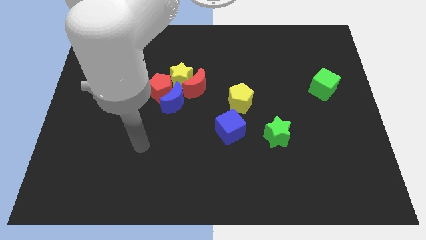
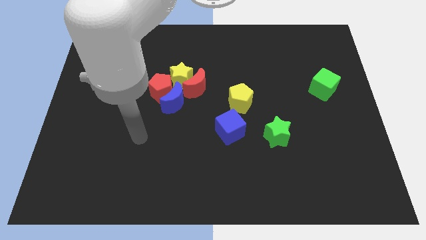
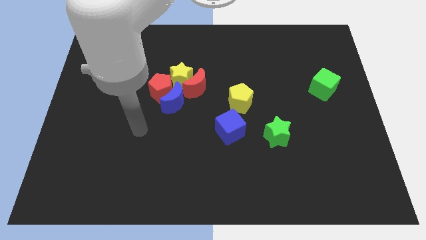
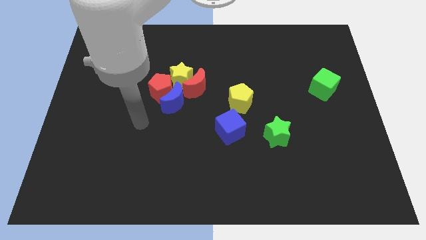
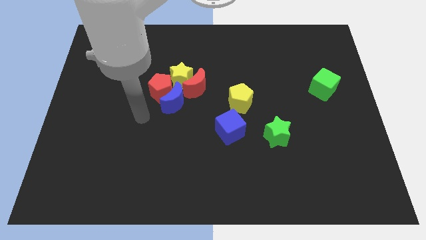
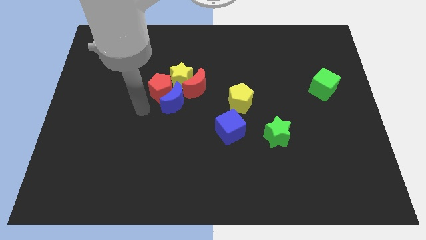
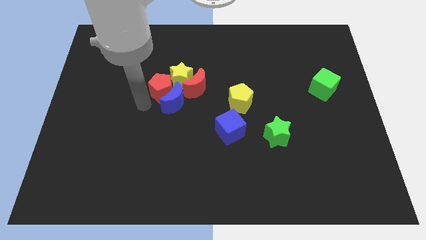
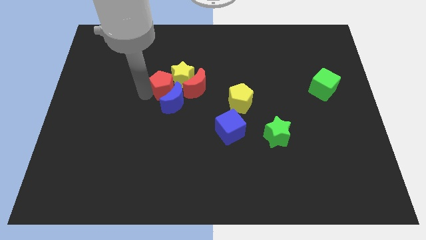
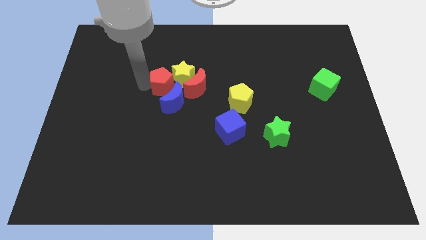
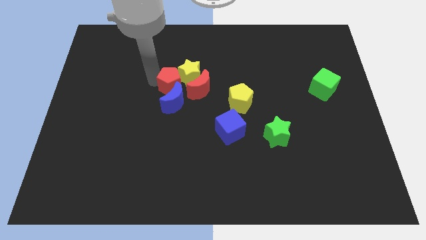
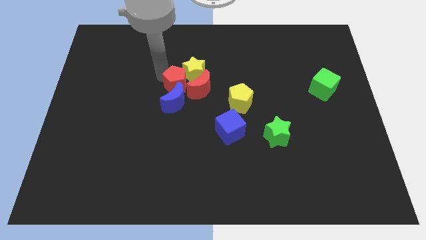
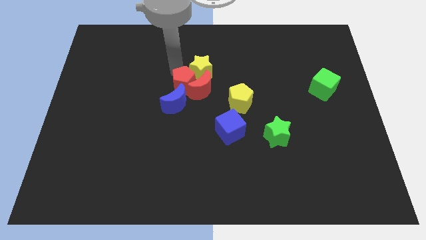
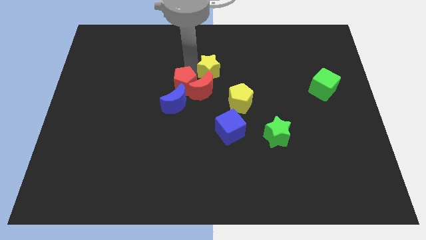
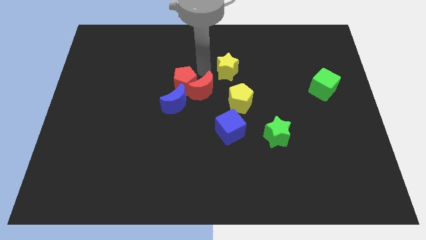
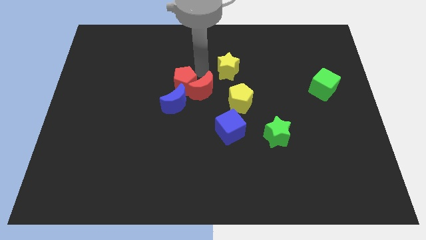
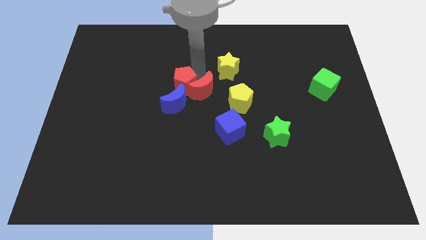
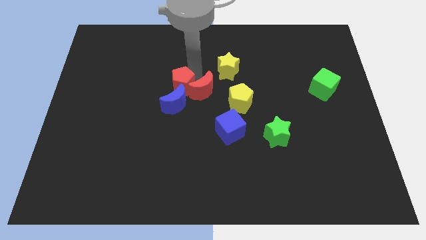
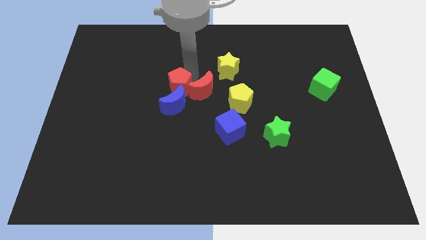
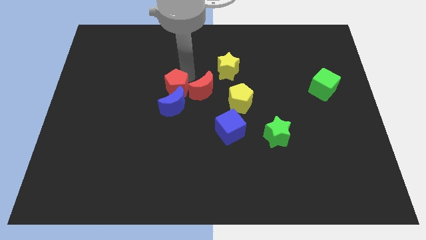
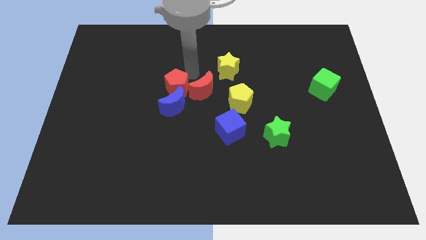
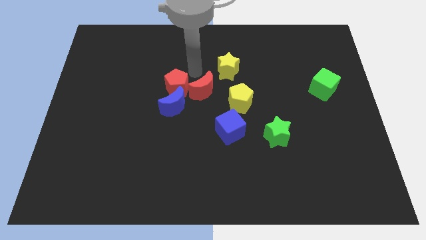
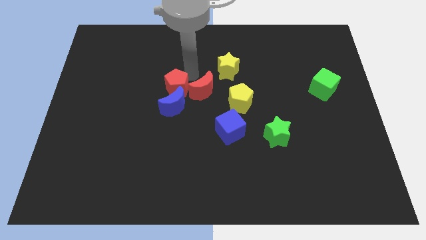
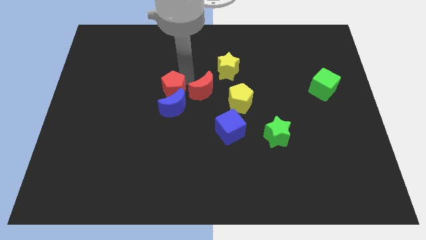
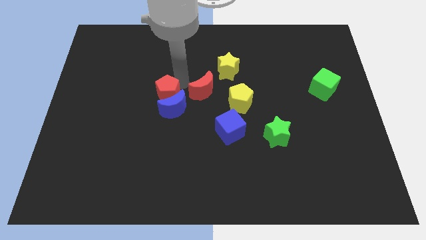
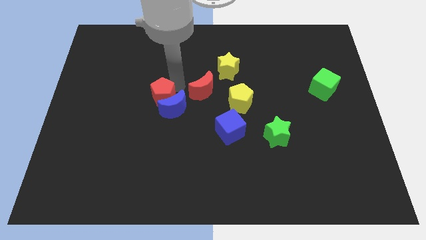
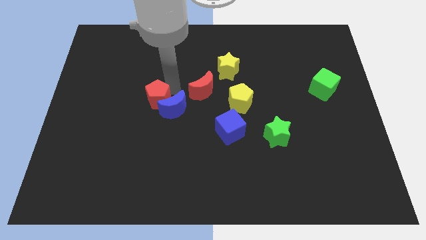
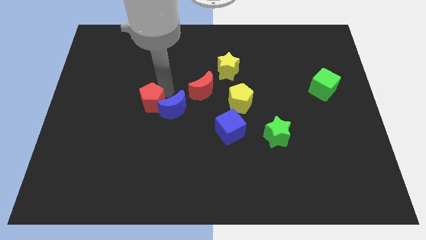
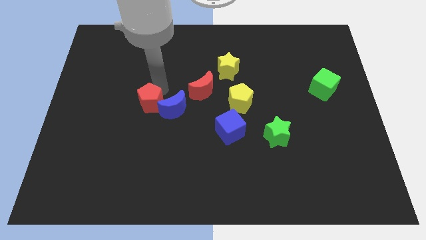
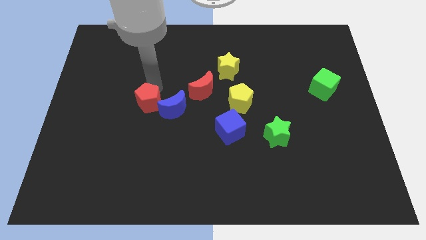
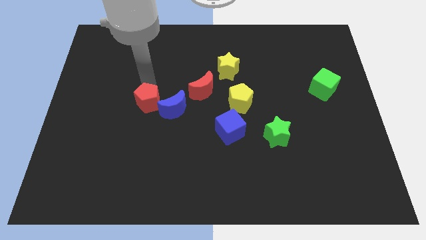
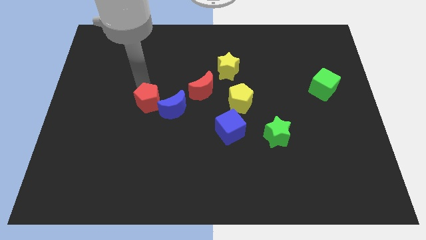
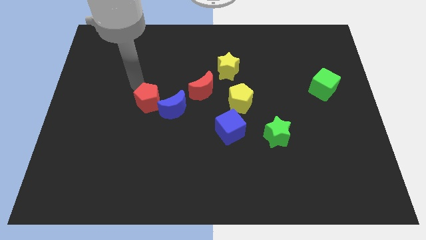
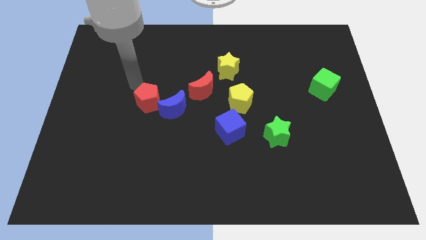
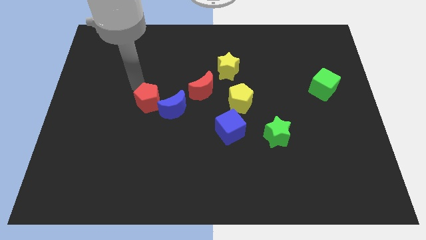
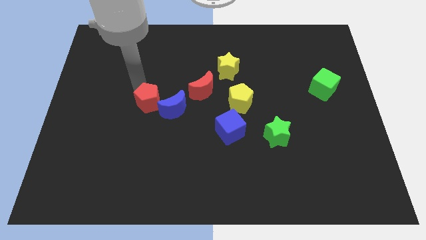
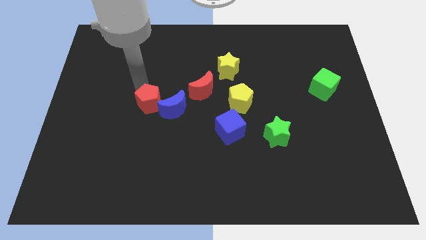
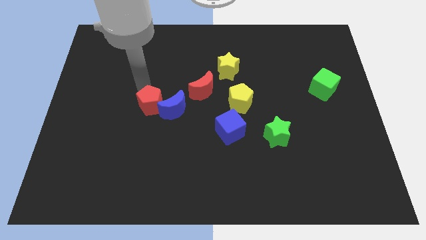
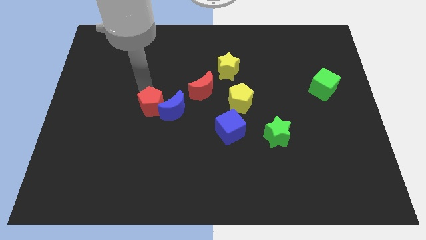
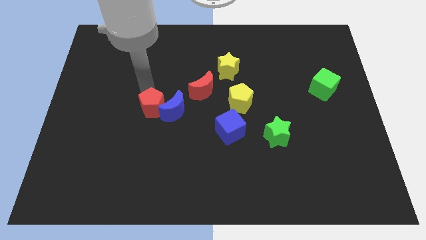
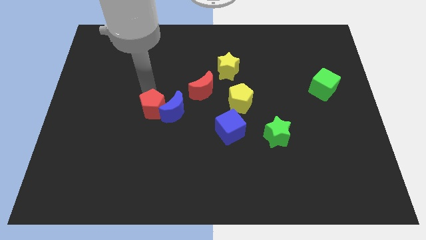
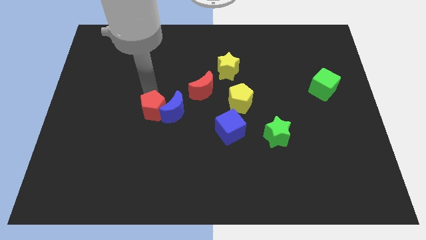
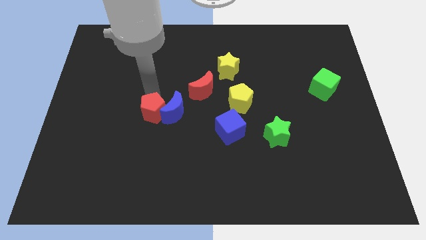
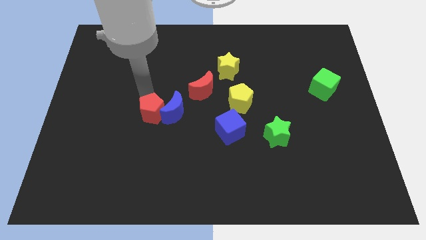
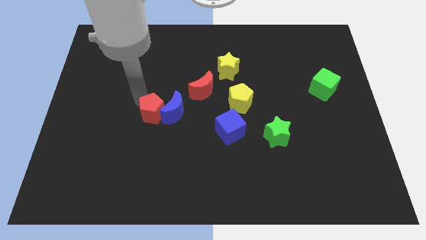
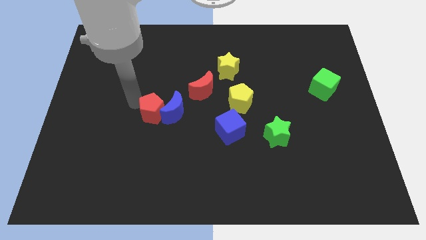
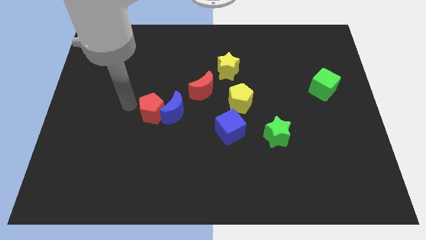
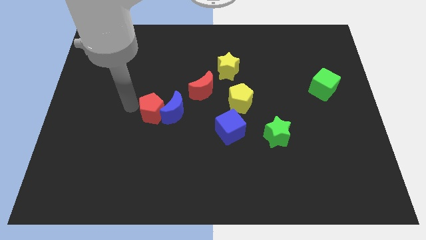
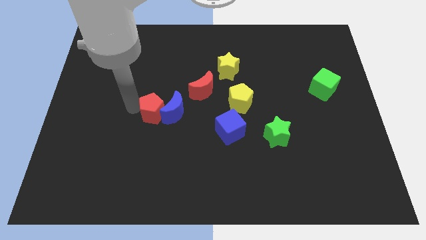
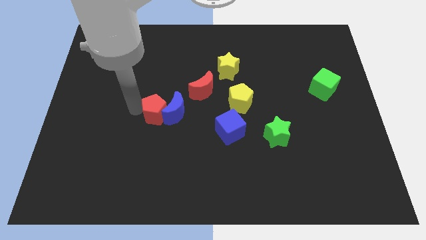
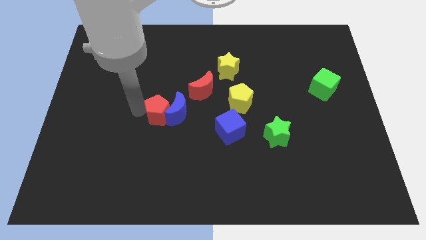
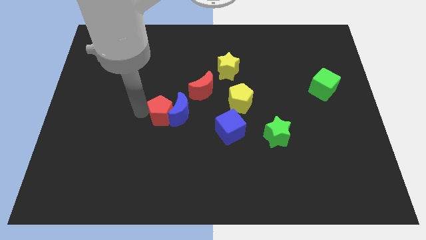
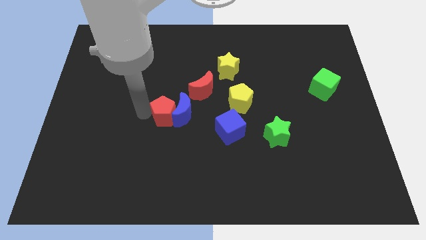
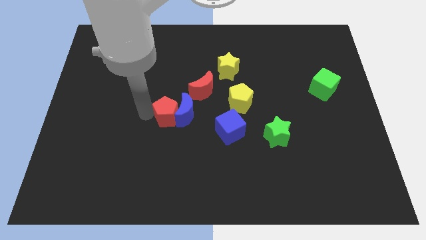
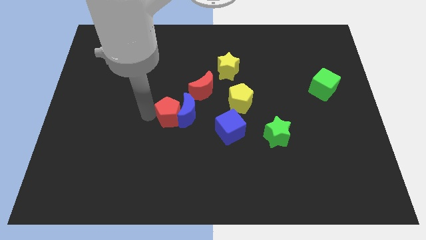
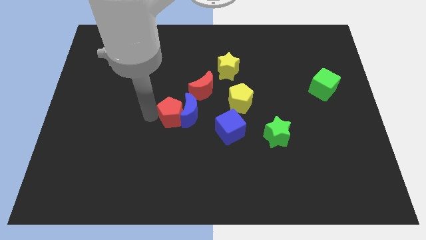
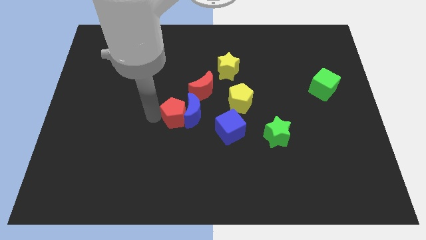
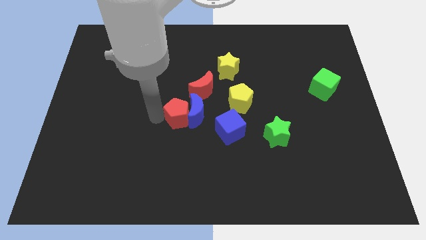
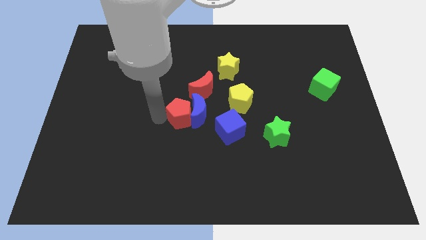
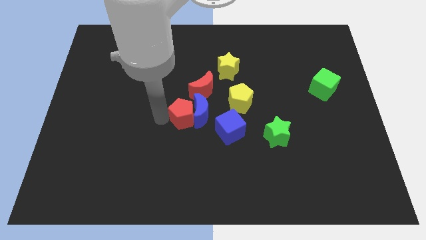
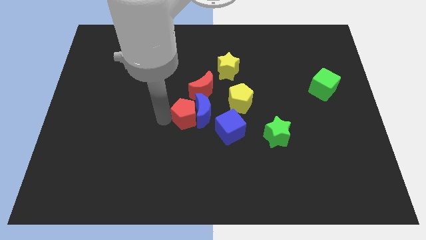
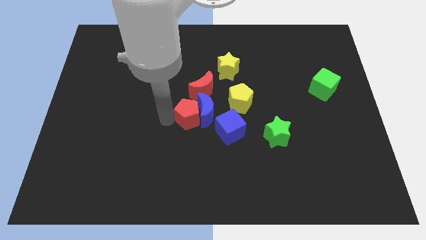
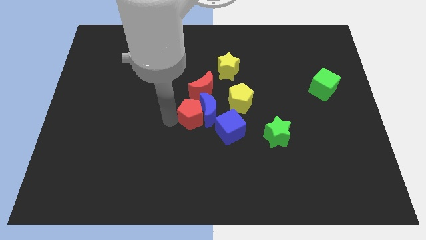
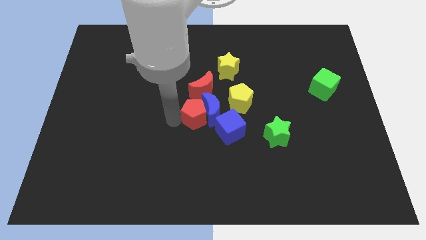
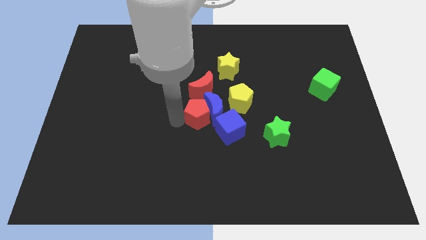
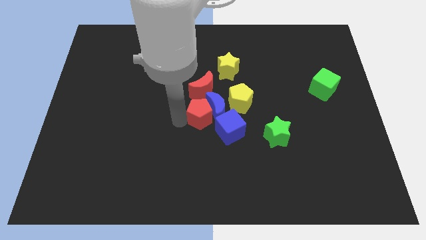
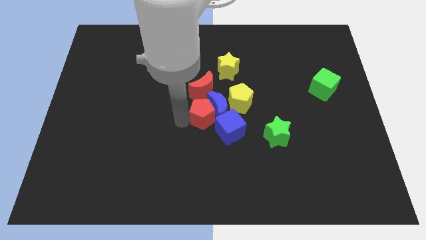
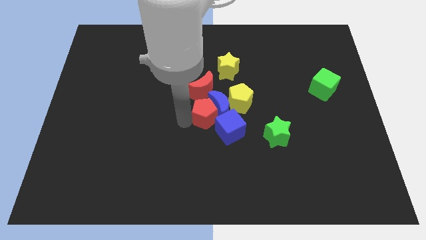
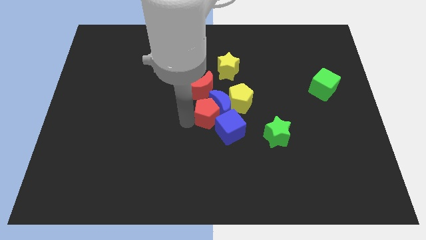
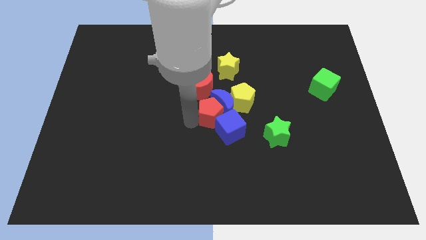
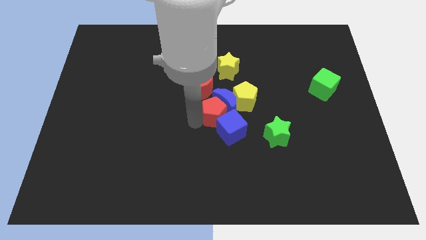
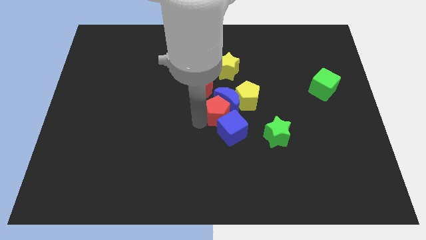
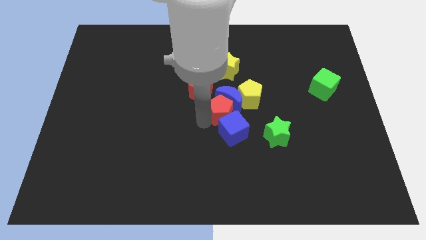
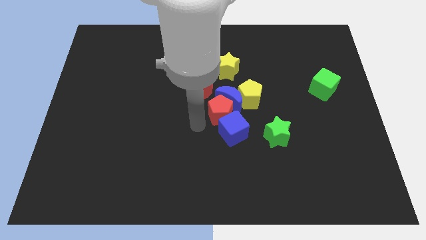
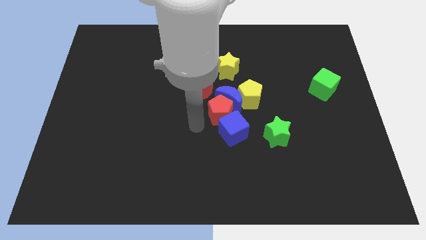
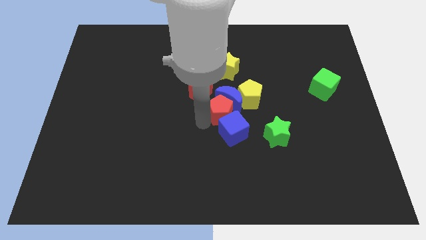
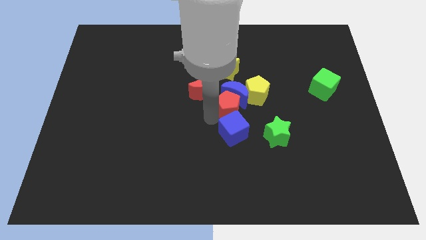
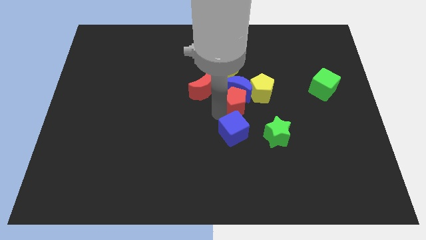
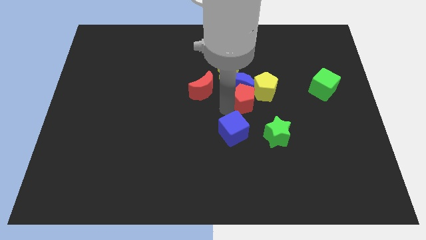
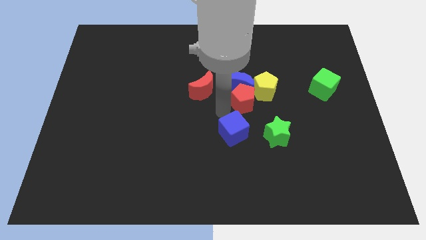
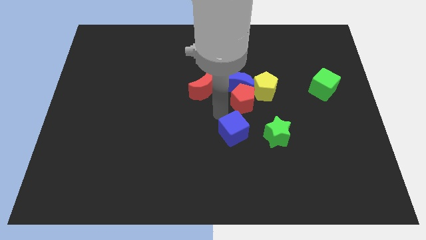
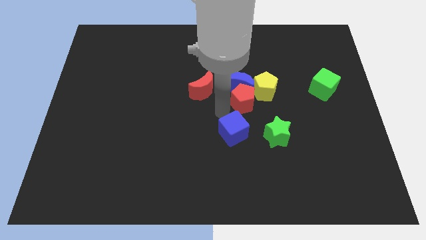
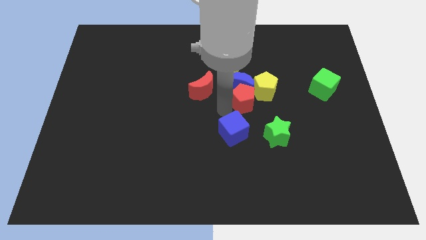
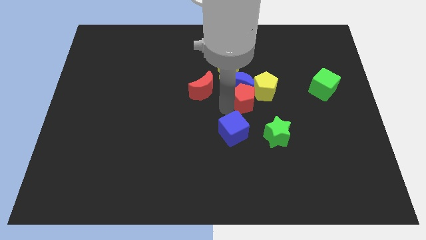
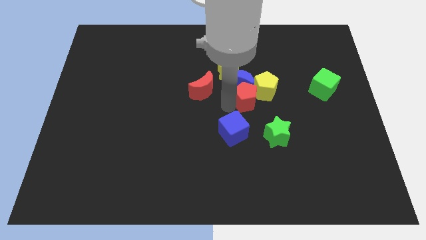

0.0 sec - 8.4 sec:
push the red pentagon towards the yellow pentagon
